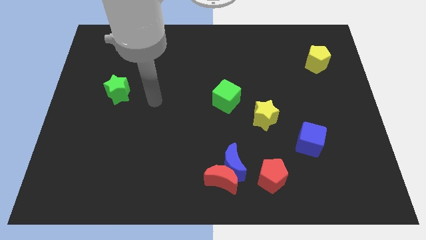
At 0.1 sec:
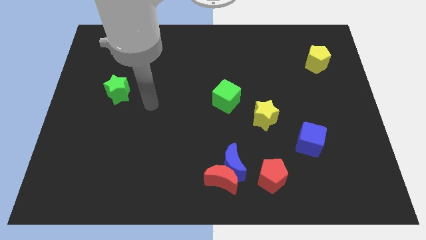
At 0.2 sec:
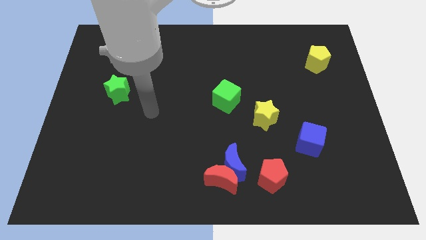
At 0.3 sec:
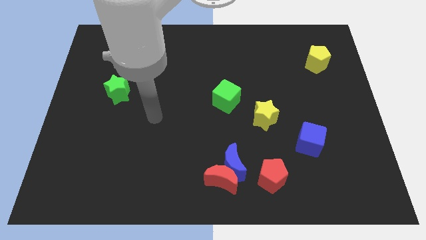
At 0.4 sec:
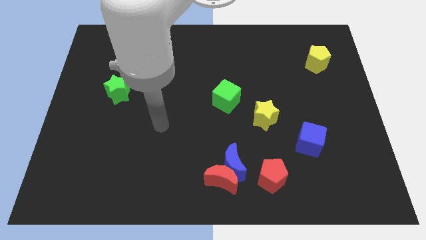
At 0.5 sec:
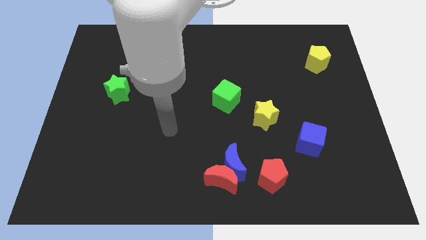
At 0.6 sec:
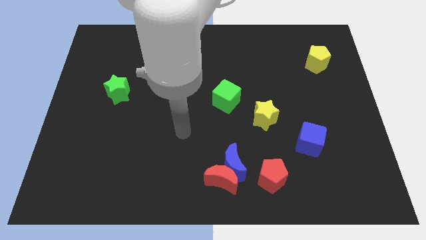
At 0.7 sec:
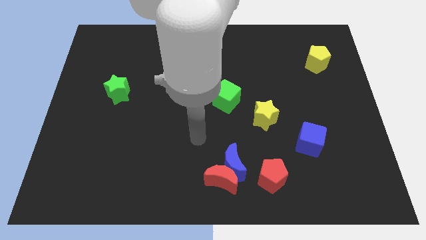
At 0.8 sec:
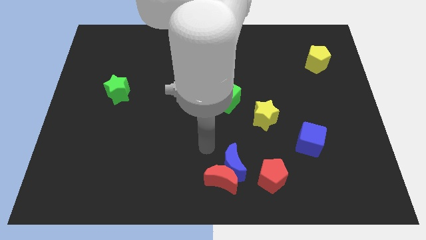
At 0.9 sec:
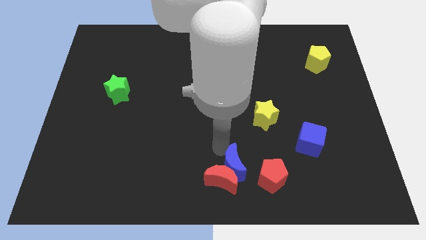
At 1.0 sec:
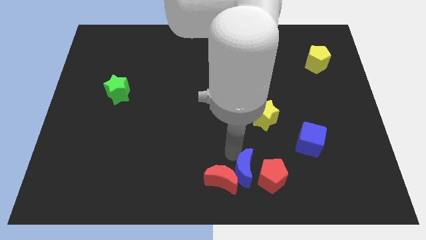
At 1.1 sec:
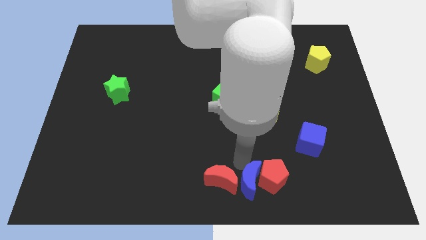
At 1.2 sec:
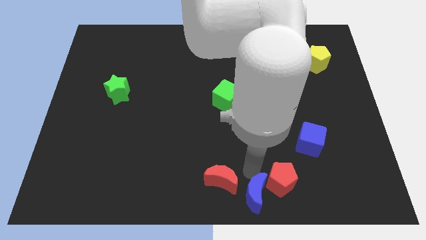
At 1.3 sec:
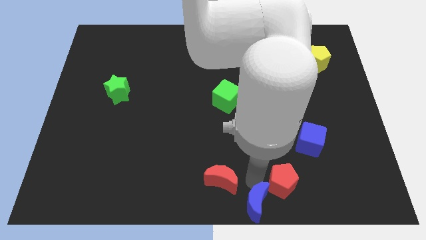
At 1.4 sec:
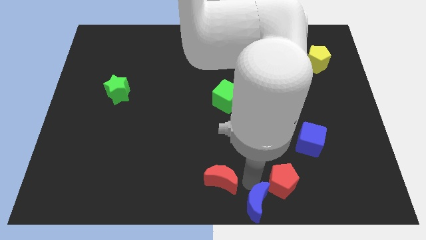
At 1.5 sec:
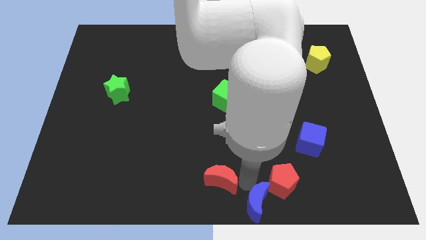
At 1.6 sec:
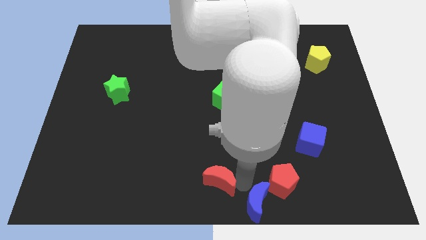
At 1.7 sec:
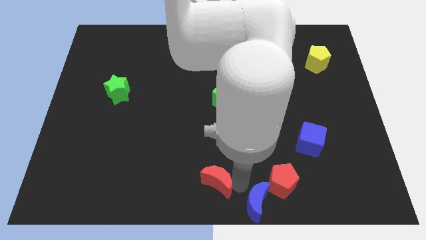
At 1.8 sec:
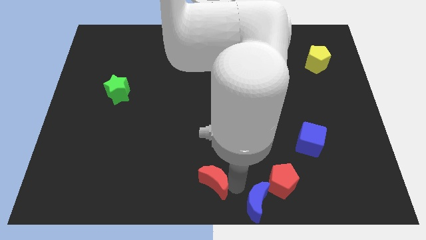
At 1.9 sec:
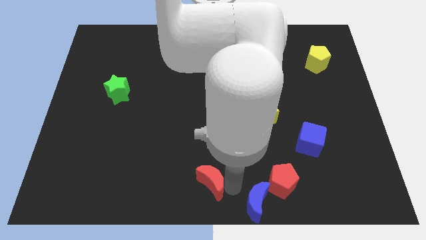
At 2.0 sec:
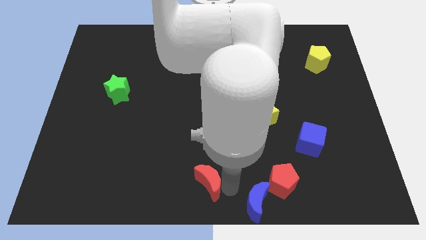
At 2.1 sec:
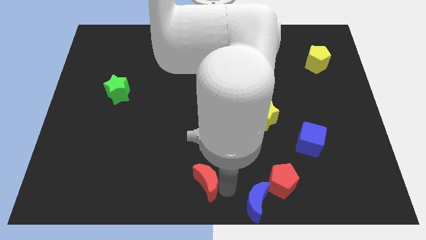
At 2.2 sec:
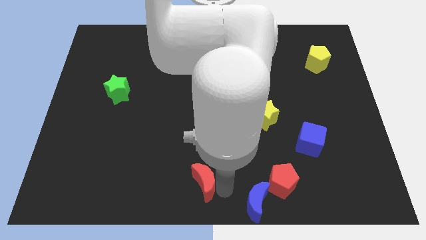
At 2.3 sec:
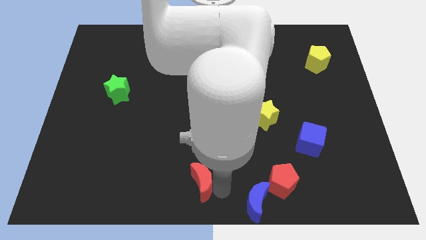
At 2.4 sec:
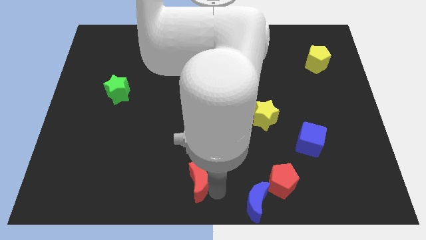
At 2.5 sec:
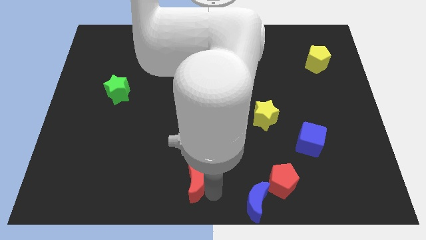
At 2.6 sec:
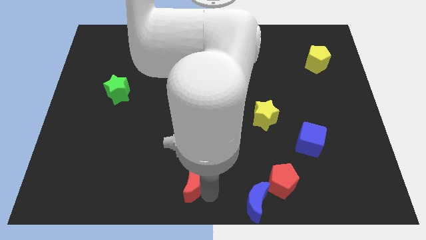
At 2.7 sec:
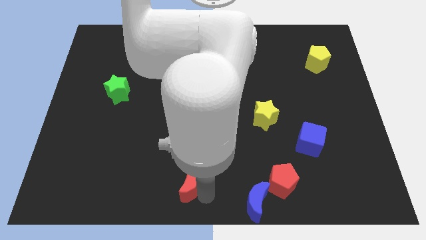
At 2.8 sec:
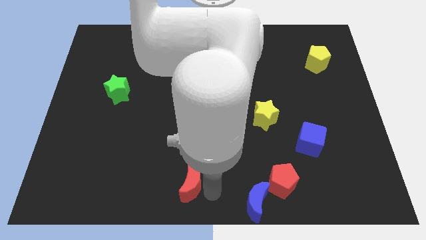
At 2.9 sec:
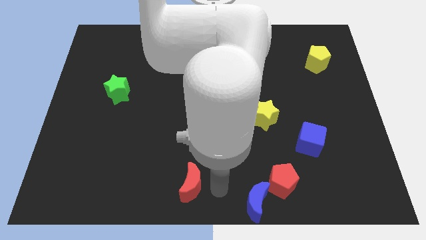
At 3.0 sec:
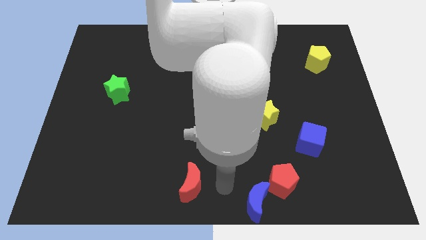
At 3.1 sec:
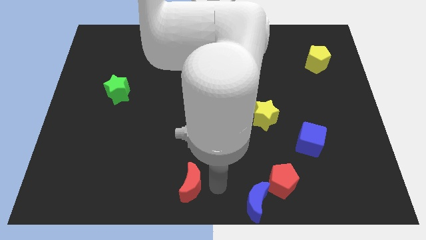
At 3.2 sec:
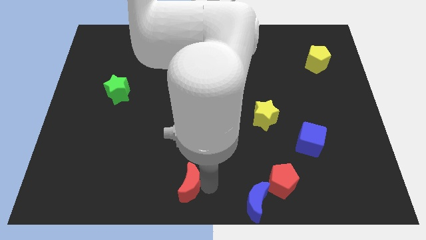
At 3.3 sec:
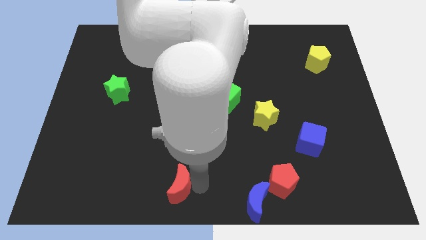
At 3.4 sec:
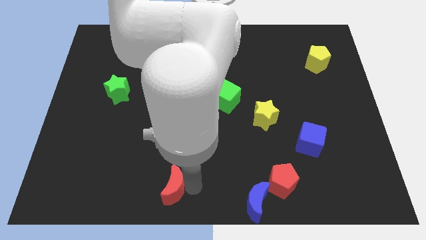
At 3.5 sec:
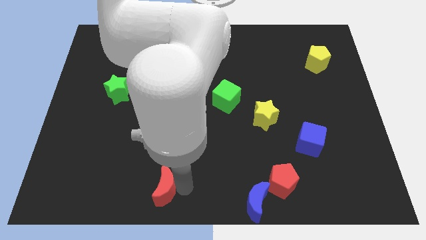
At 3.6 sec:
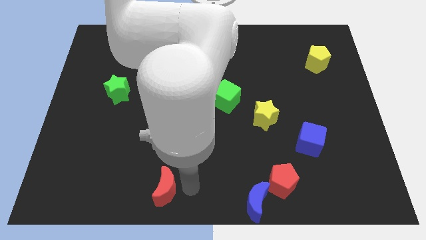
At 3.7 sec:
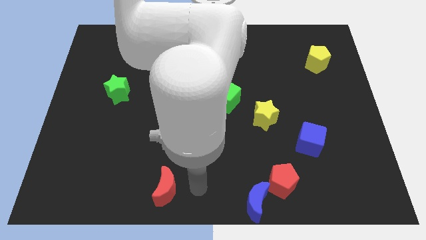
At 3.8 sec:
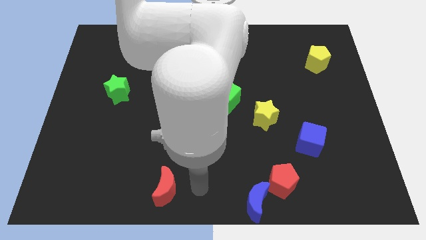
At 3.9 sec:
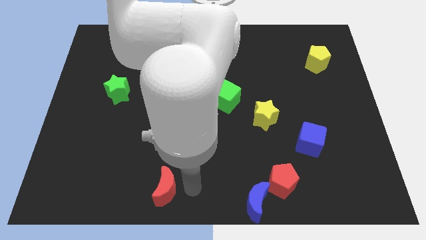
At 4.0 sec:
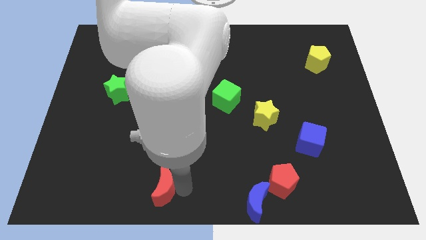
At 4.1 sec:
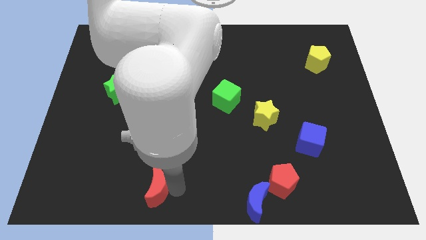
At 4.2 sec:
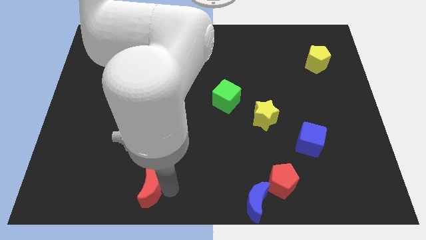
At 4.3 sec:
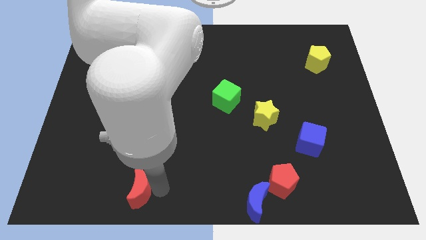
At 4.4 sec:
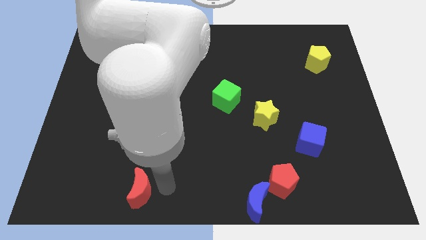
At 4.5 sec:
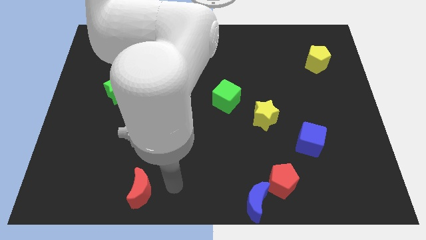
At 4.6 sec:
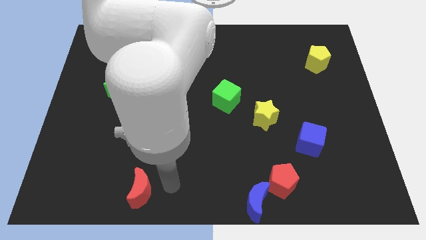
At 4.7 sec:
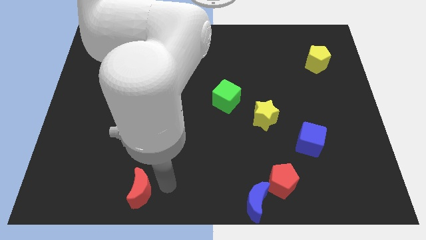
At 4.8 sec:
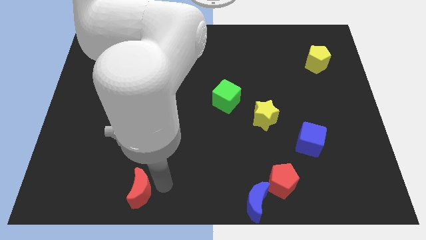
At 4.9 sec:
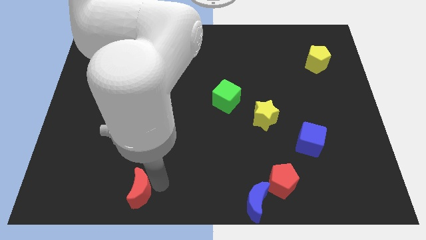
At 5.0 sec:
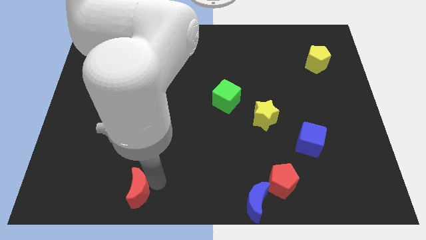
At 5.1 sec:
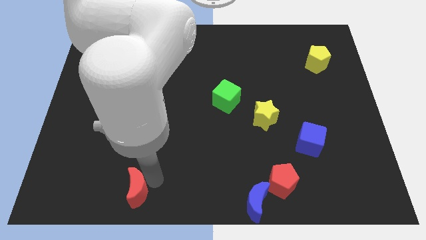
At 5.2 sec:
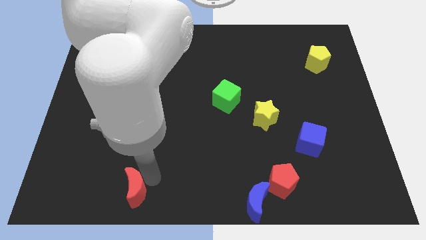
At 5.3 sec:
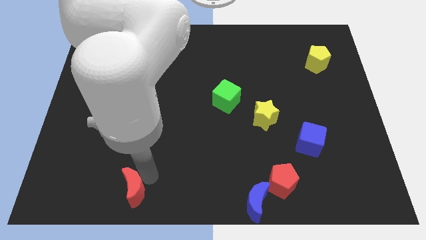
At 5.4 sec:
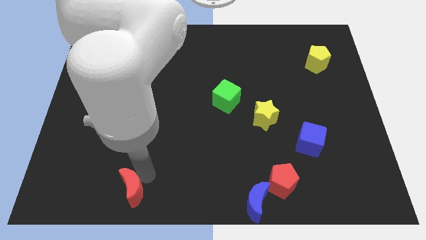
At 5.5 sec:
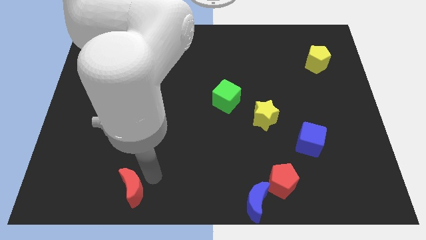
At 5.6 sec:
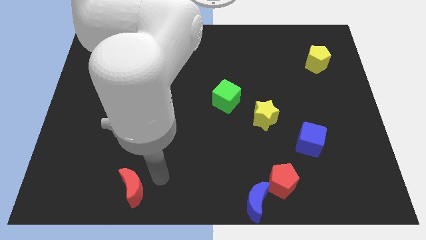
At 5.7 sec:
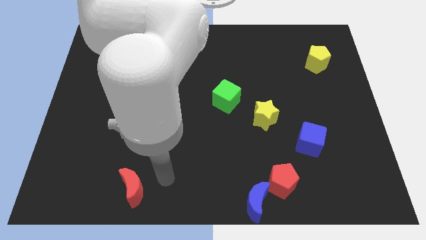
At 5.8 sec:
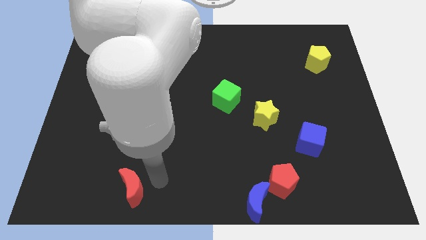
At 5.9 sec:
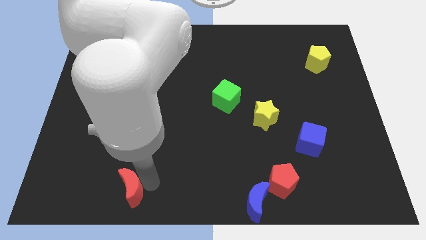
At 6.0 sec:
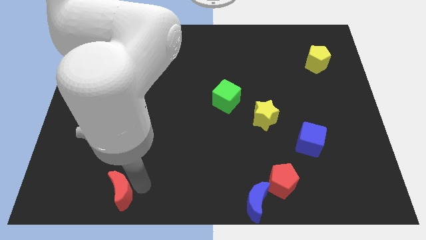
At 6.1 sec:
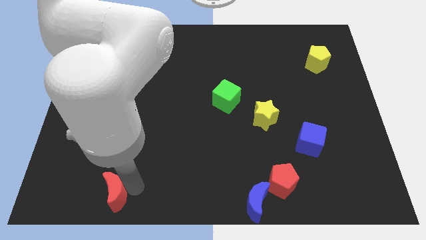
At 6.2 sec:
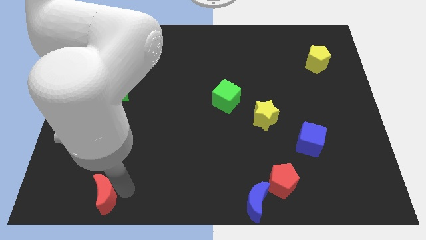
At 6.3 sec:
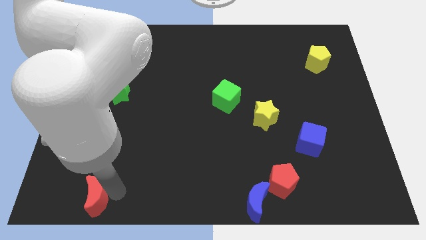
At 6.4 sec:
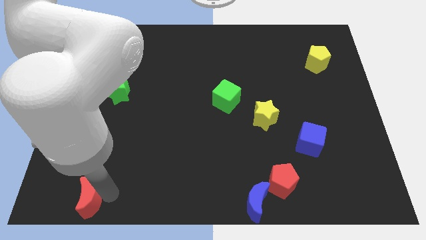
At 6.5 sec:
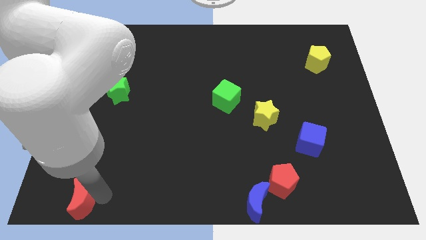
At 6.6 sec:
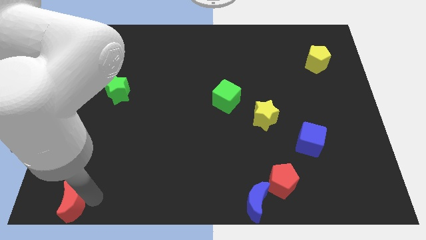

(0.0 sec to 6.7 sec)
push the red moon to the bottom left of the board
